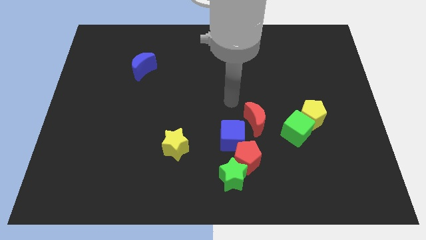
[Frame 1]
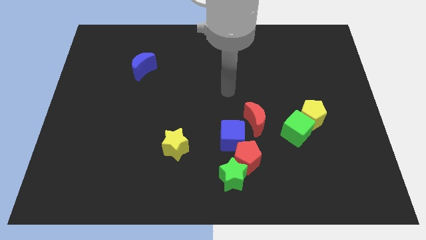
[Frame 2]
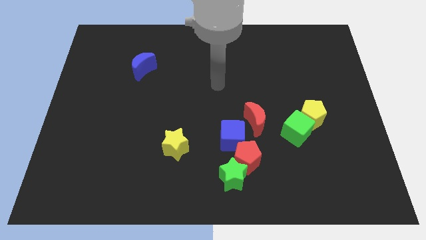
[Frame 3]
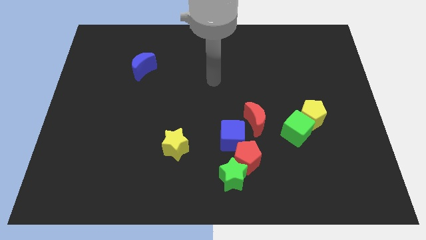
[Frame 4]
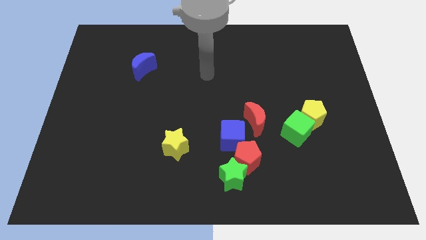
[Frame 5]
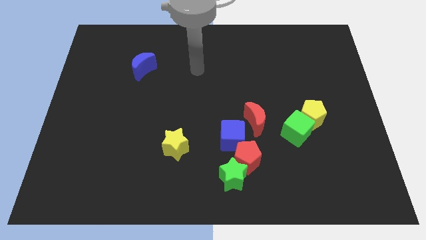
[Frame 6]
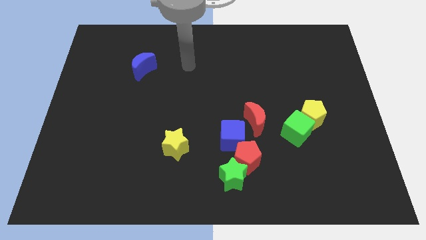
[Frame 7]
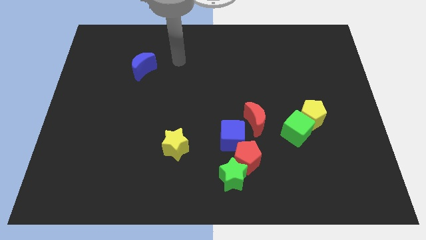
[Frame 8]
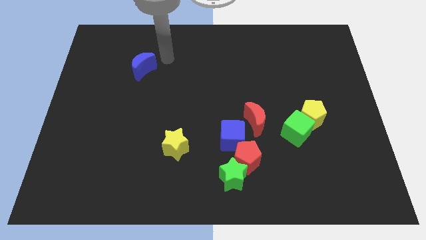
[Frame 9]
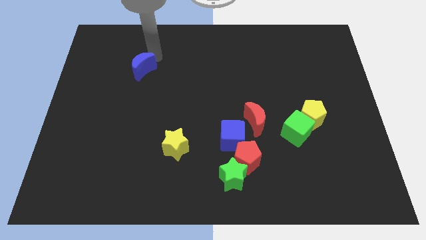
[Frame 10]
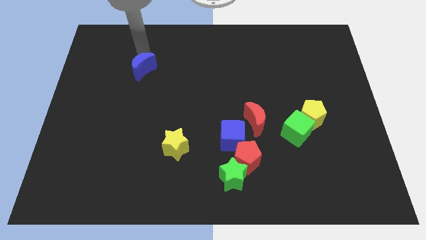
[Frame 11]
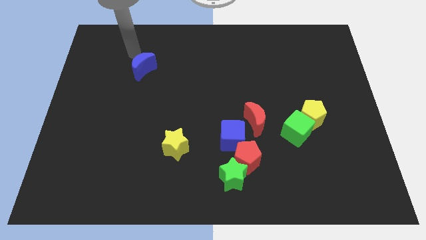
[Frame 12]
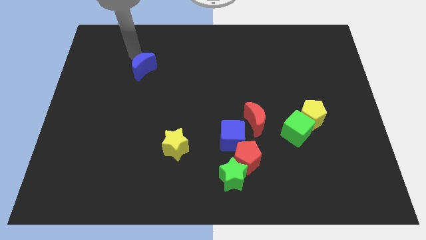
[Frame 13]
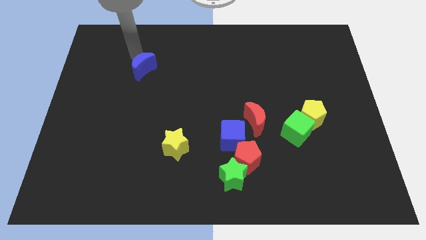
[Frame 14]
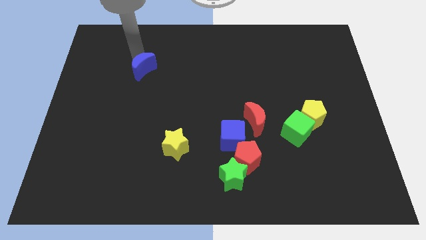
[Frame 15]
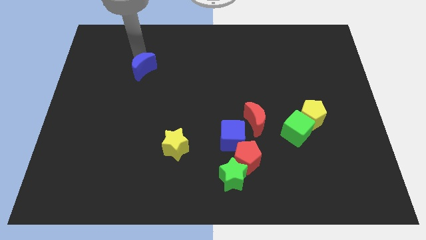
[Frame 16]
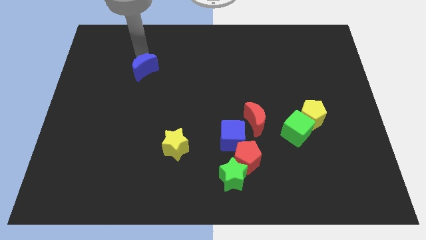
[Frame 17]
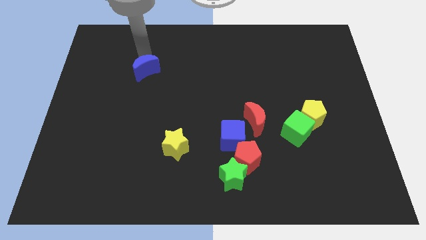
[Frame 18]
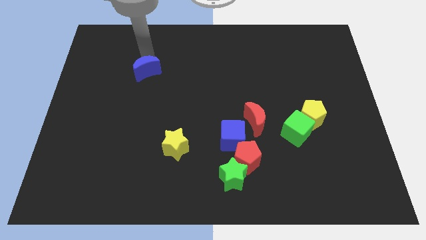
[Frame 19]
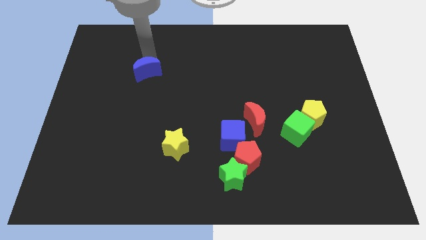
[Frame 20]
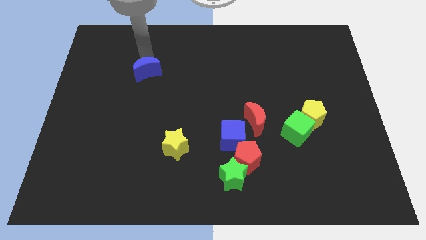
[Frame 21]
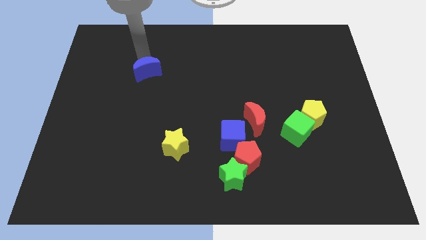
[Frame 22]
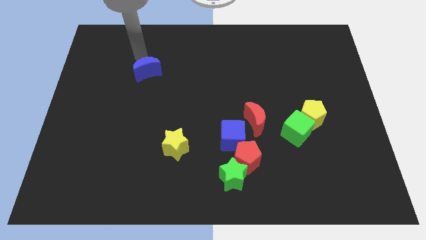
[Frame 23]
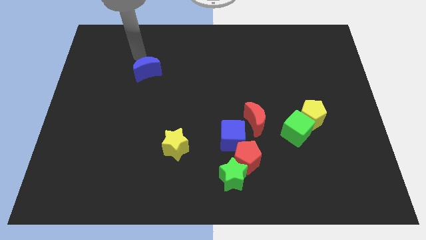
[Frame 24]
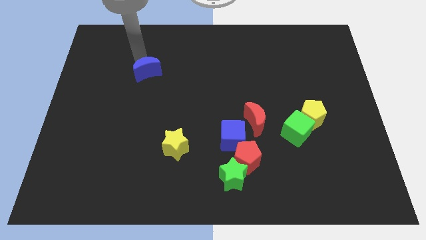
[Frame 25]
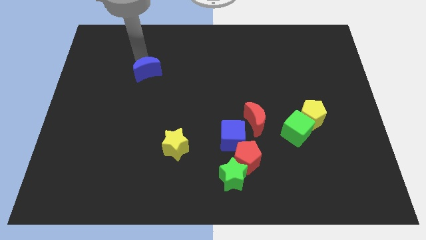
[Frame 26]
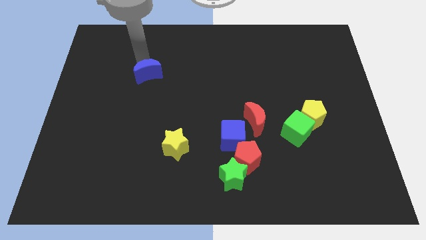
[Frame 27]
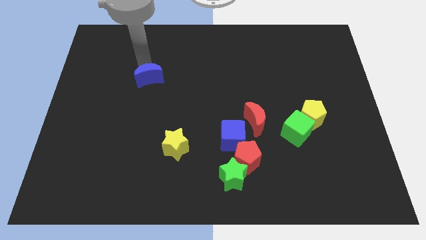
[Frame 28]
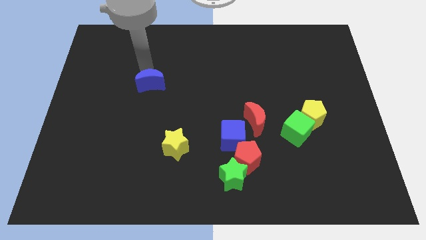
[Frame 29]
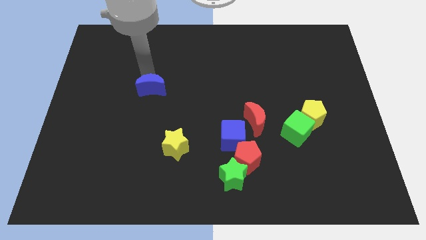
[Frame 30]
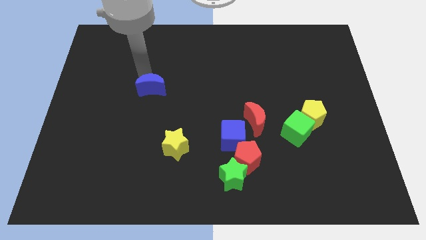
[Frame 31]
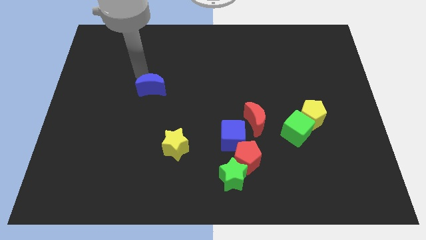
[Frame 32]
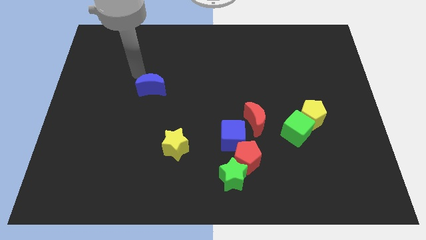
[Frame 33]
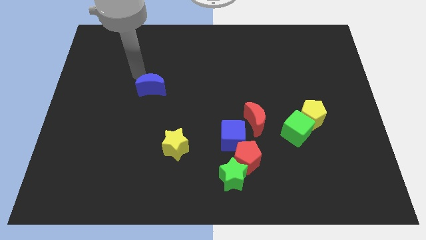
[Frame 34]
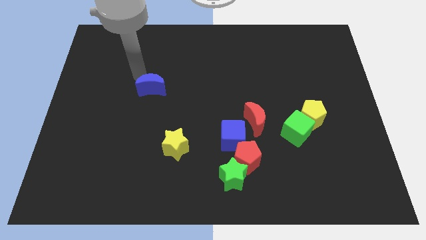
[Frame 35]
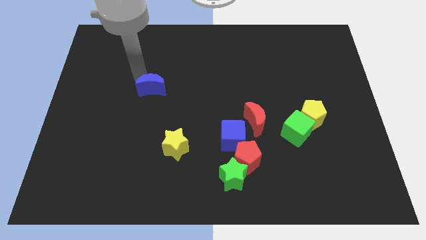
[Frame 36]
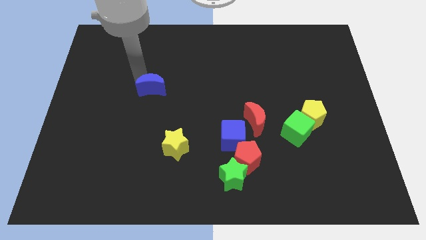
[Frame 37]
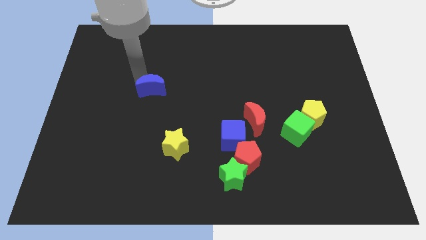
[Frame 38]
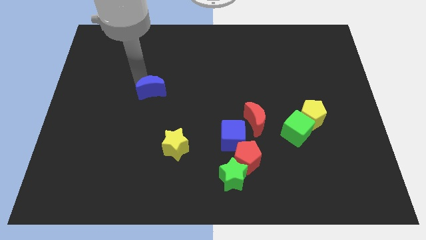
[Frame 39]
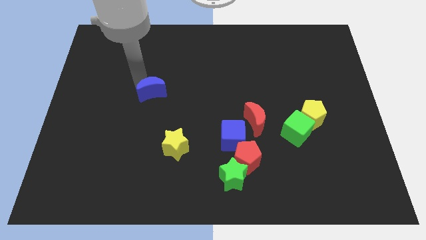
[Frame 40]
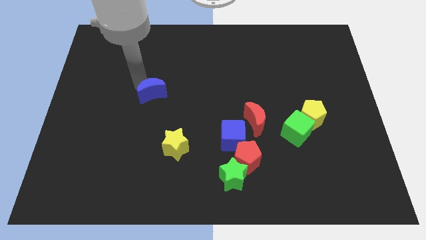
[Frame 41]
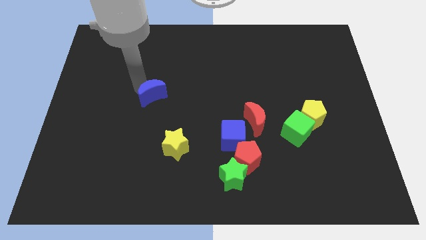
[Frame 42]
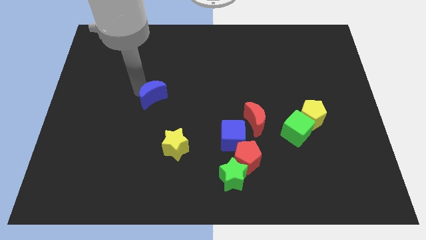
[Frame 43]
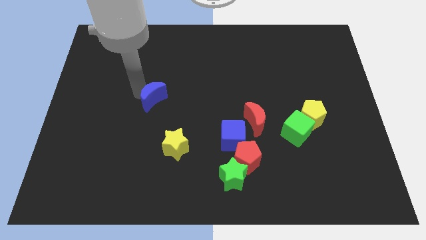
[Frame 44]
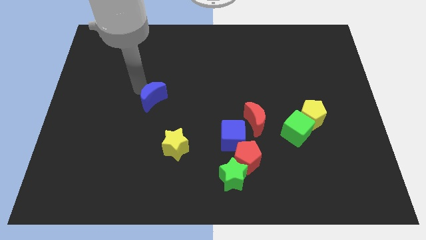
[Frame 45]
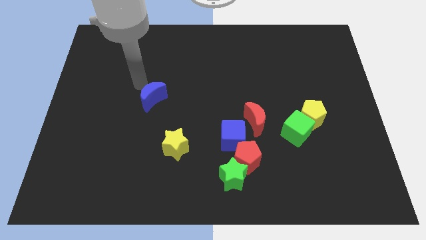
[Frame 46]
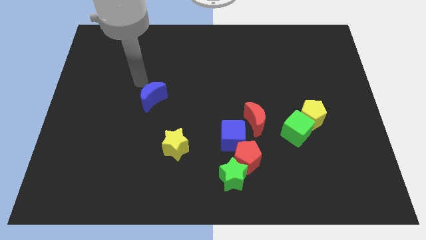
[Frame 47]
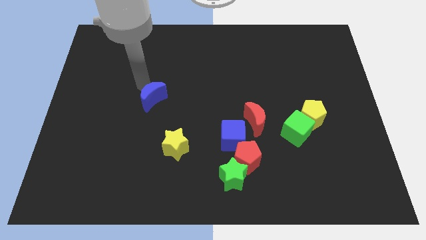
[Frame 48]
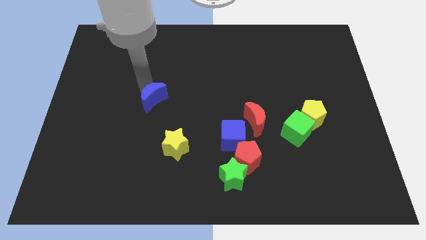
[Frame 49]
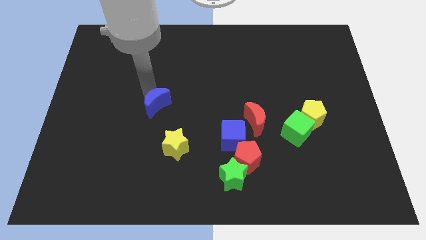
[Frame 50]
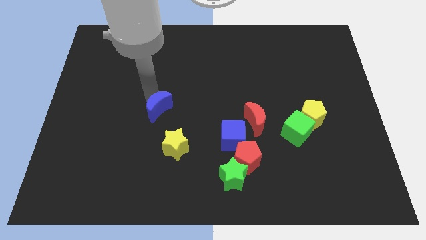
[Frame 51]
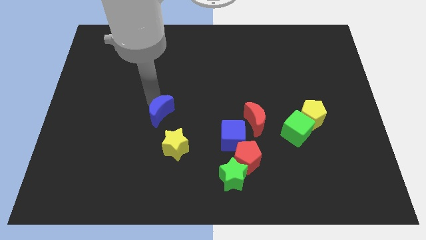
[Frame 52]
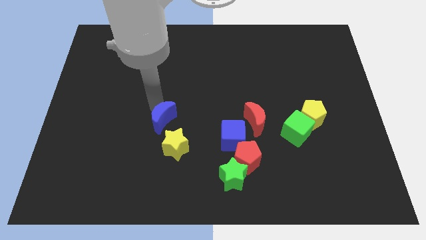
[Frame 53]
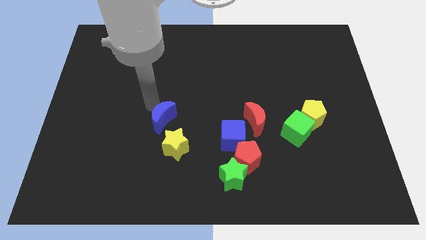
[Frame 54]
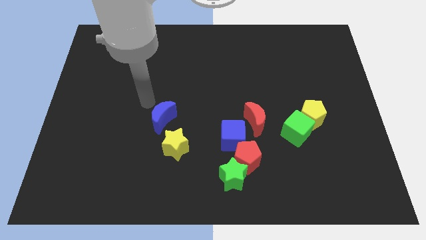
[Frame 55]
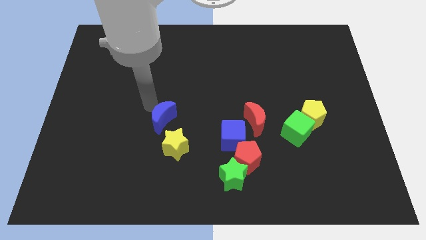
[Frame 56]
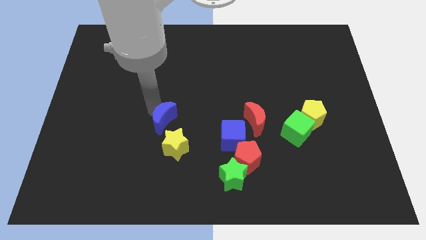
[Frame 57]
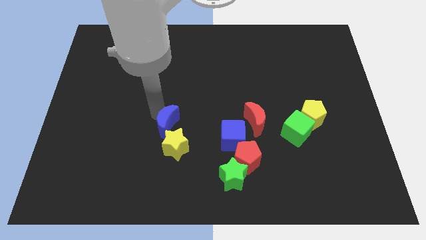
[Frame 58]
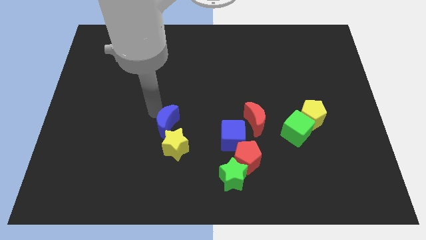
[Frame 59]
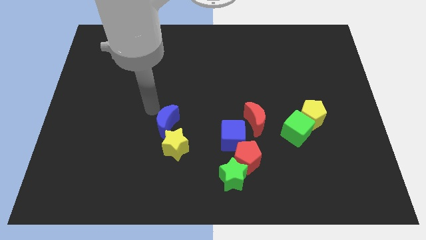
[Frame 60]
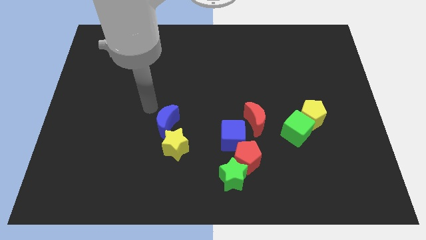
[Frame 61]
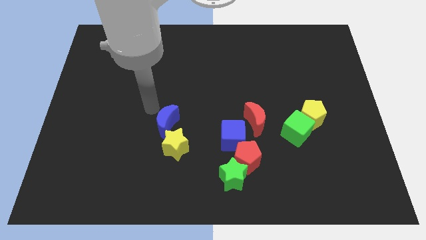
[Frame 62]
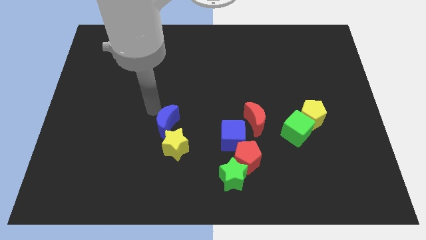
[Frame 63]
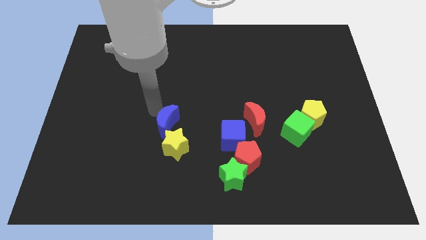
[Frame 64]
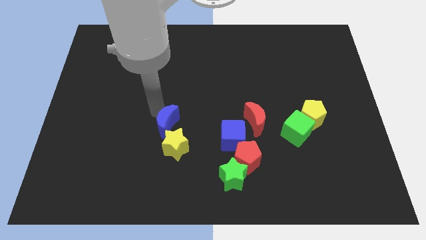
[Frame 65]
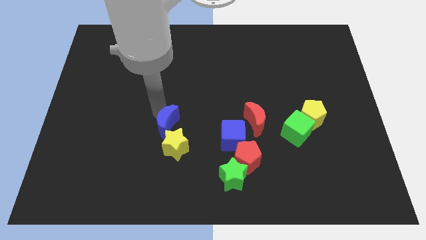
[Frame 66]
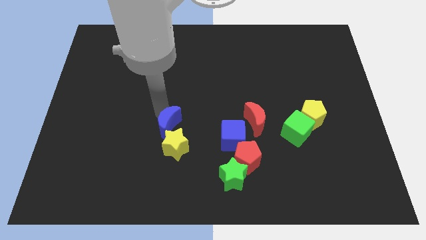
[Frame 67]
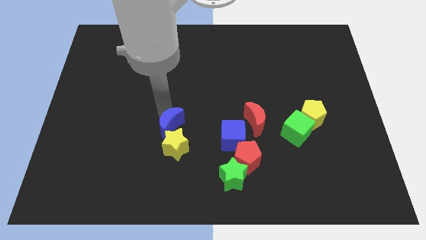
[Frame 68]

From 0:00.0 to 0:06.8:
slide the blue moon close to the yellow star

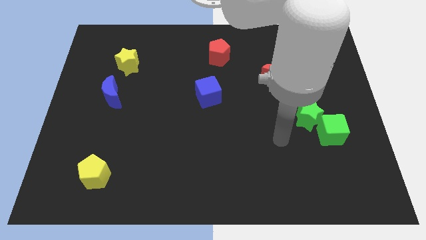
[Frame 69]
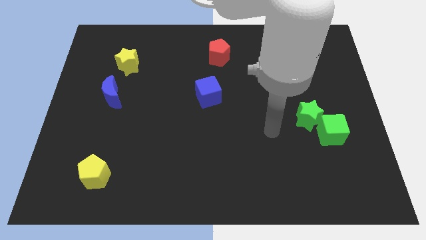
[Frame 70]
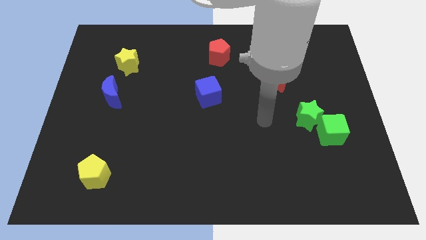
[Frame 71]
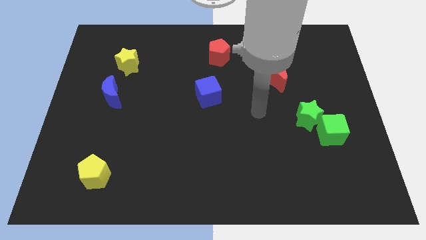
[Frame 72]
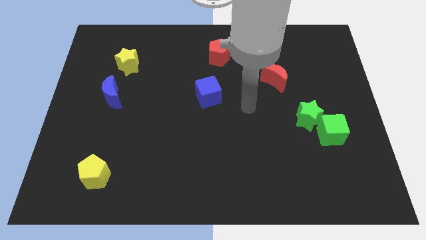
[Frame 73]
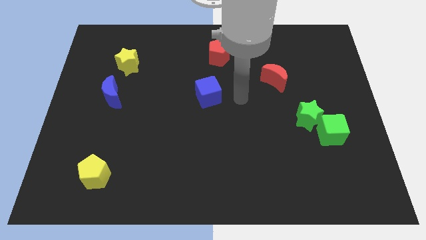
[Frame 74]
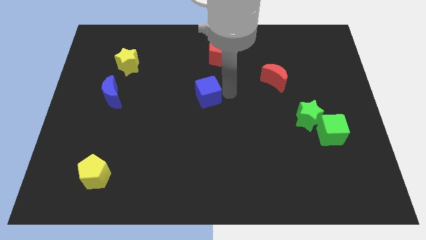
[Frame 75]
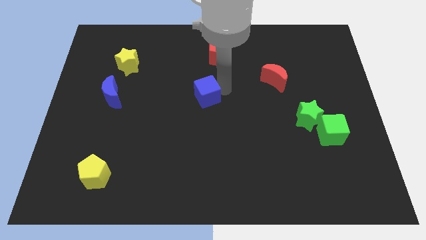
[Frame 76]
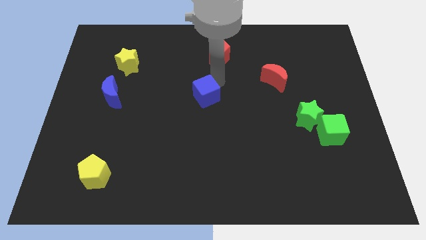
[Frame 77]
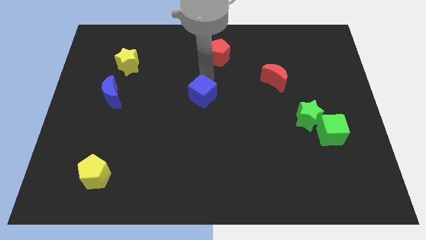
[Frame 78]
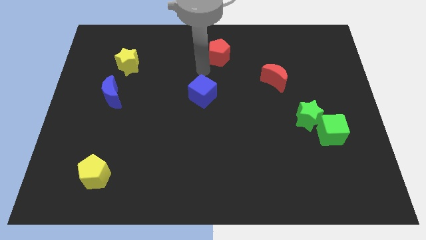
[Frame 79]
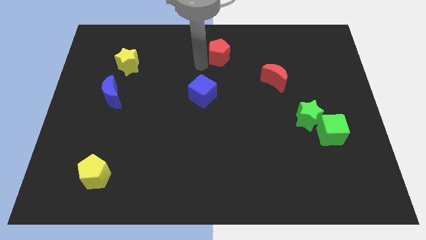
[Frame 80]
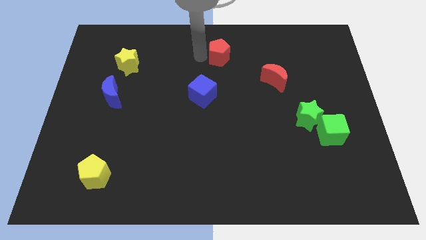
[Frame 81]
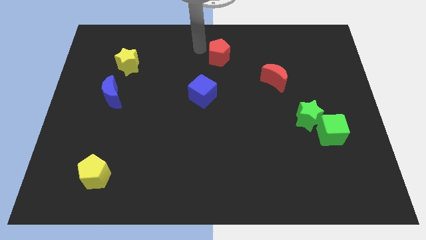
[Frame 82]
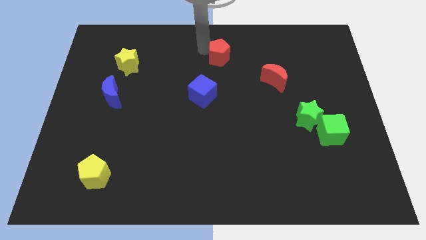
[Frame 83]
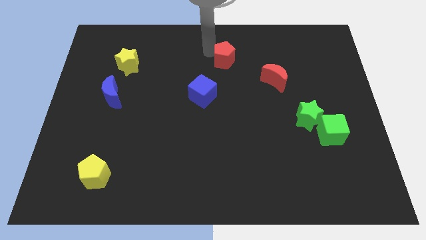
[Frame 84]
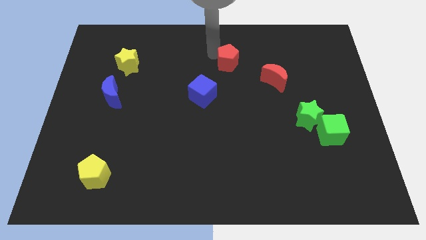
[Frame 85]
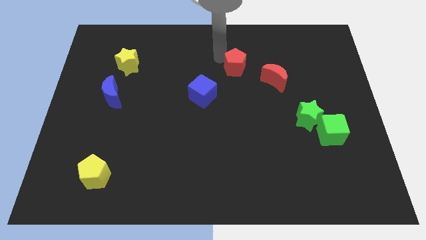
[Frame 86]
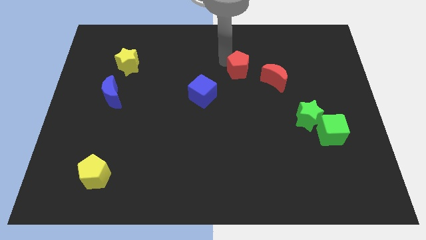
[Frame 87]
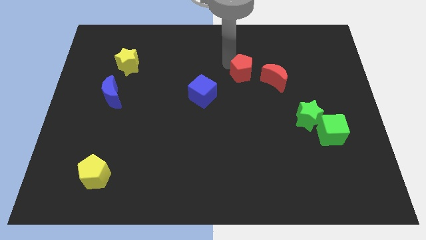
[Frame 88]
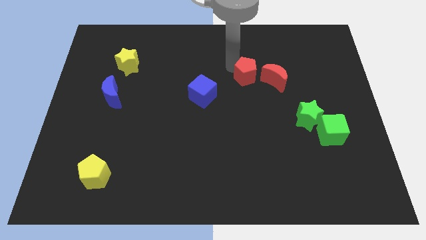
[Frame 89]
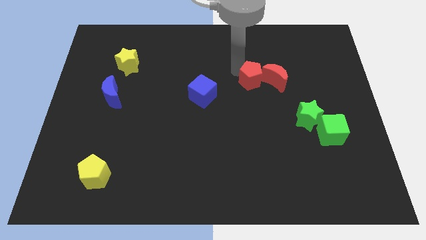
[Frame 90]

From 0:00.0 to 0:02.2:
push the red pentagon next to the red moon
